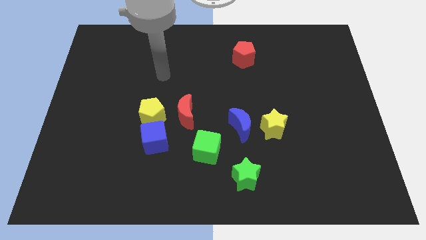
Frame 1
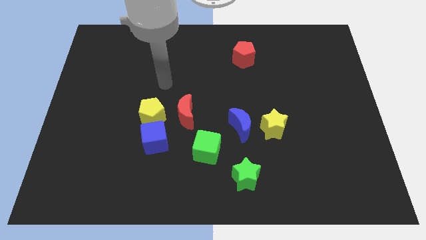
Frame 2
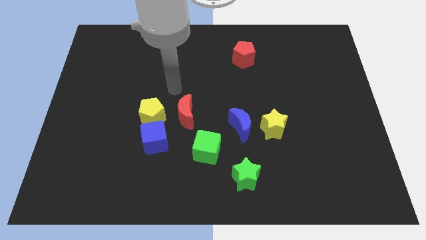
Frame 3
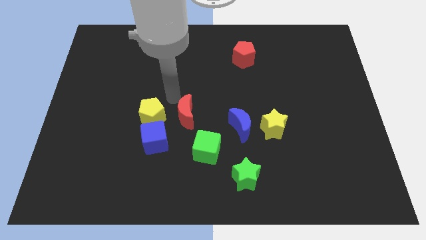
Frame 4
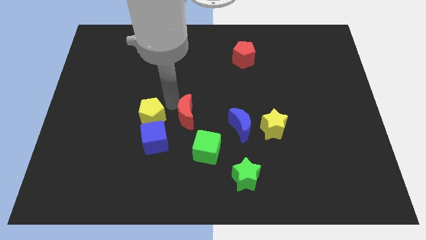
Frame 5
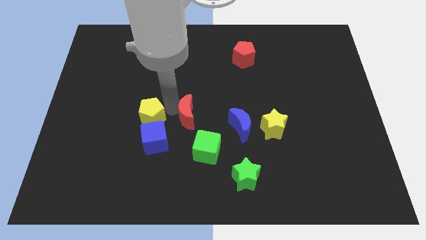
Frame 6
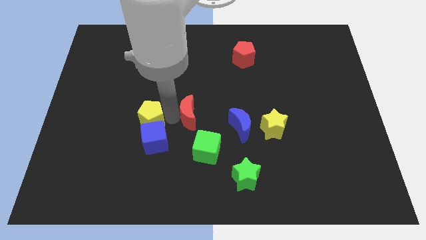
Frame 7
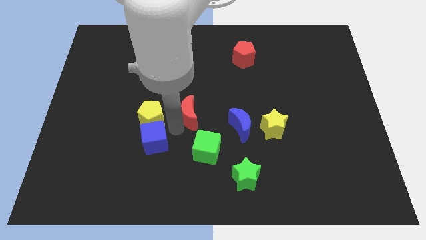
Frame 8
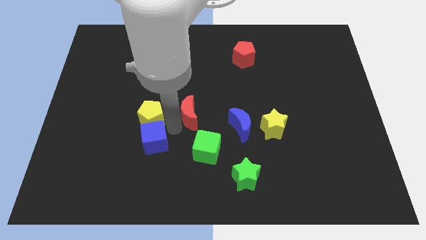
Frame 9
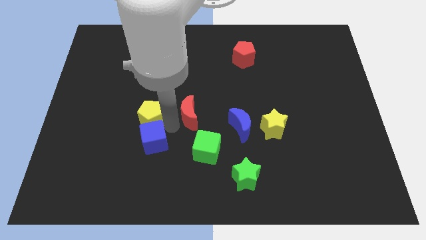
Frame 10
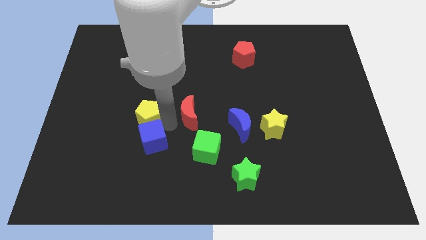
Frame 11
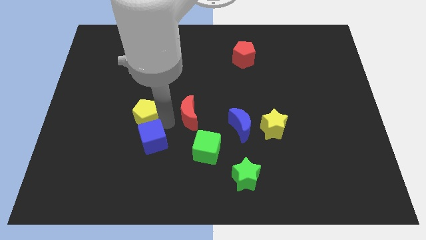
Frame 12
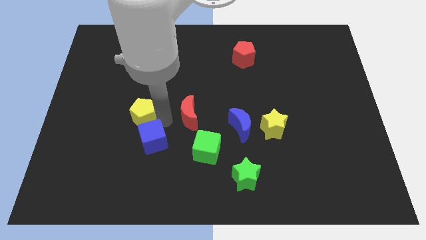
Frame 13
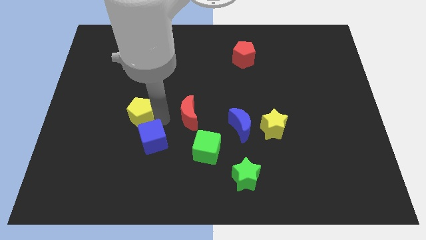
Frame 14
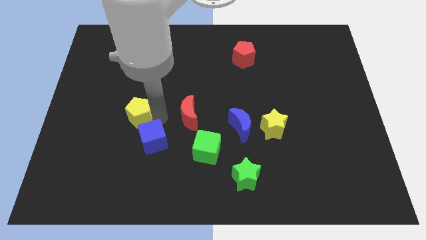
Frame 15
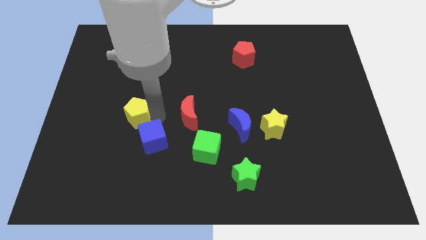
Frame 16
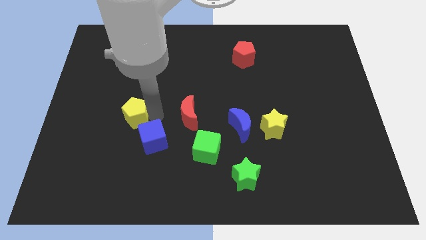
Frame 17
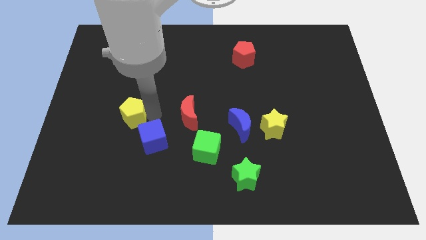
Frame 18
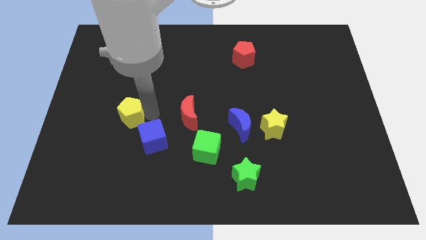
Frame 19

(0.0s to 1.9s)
move the yellow pentagon away from the blue cube and red moon

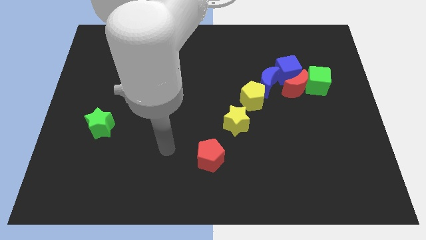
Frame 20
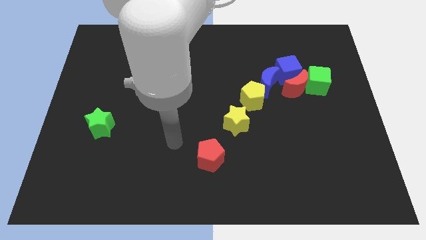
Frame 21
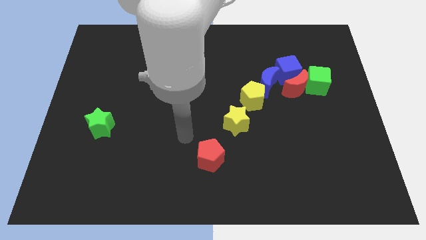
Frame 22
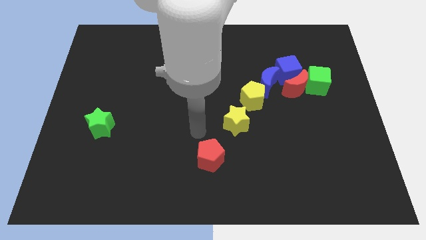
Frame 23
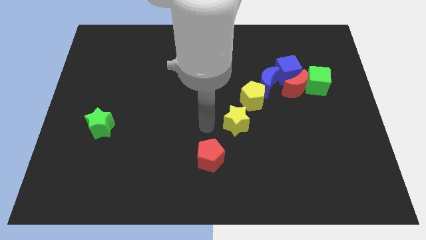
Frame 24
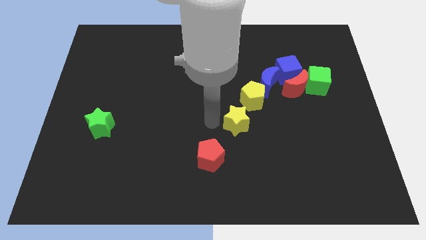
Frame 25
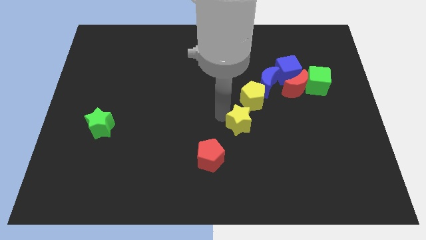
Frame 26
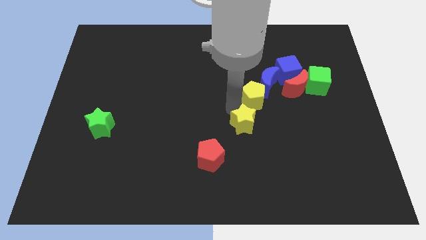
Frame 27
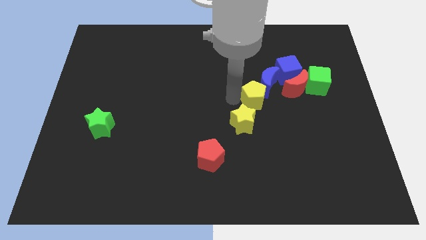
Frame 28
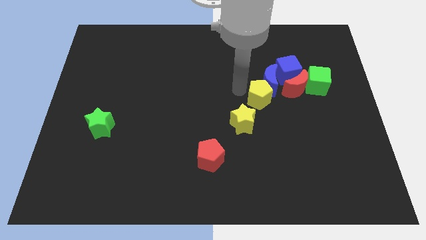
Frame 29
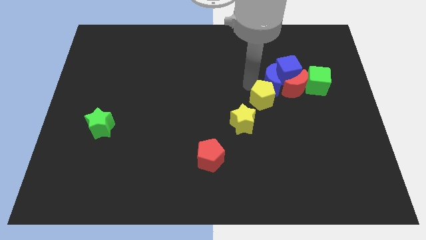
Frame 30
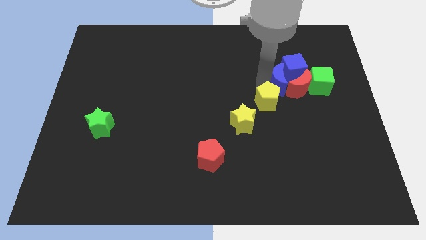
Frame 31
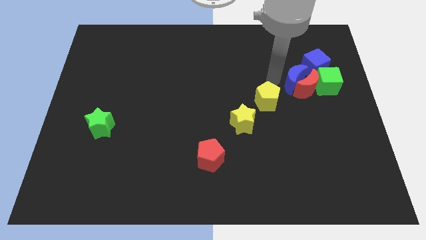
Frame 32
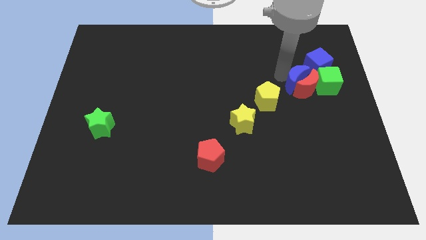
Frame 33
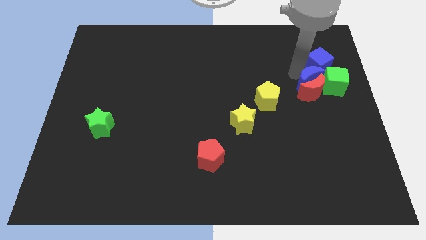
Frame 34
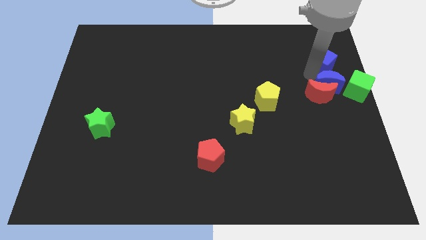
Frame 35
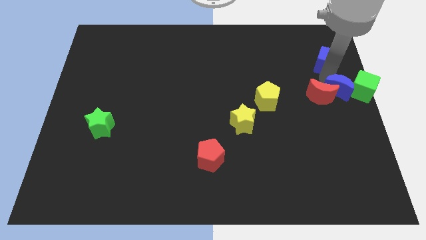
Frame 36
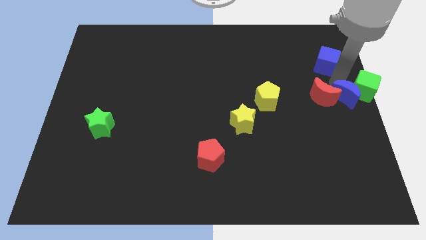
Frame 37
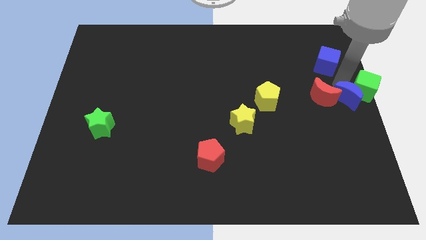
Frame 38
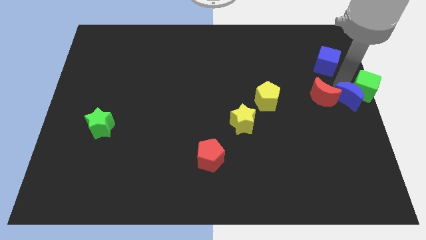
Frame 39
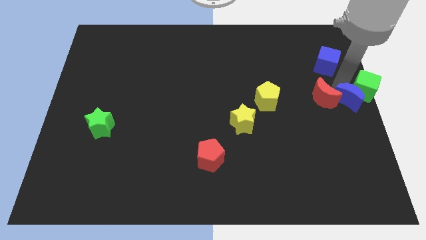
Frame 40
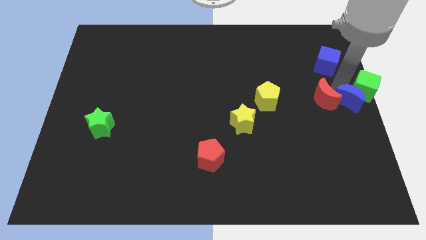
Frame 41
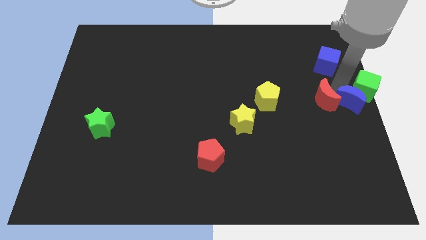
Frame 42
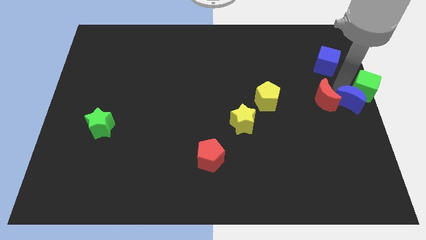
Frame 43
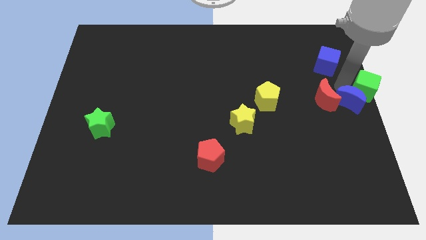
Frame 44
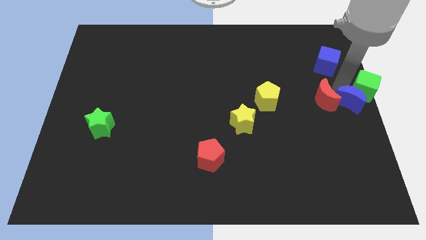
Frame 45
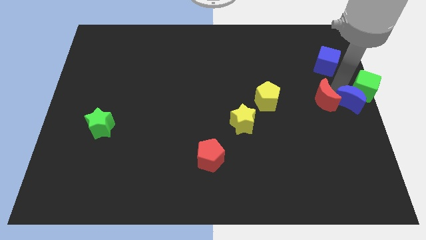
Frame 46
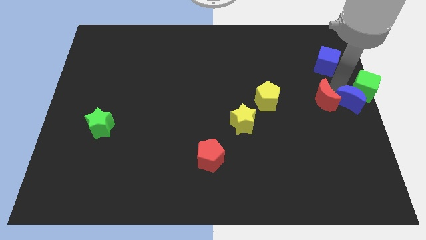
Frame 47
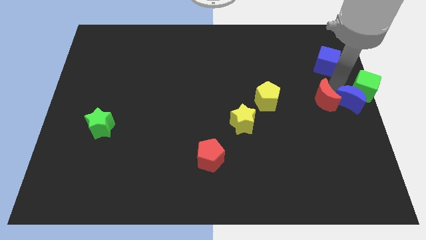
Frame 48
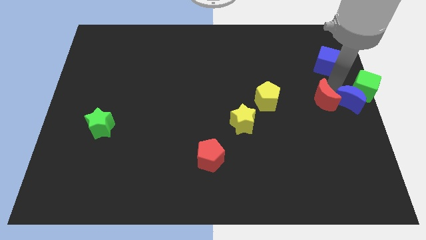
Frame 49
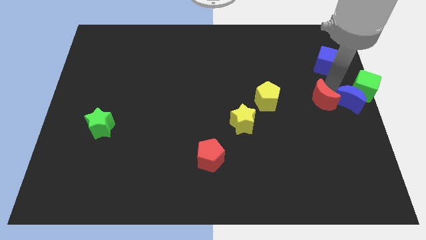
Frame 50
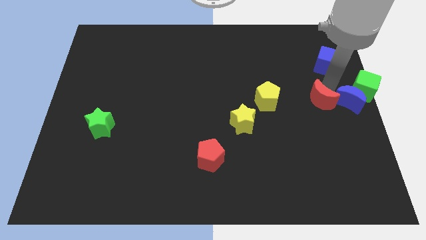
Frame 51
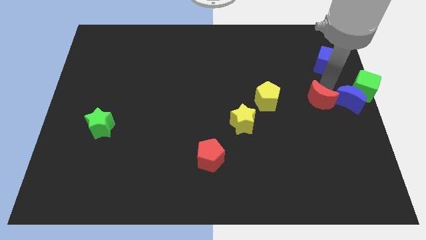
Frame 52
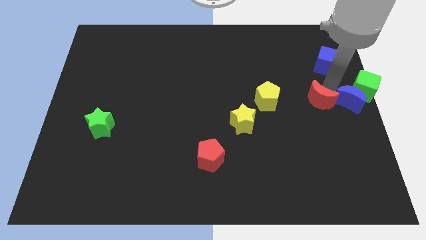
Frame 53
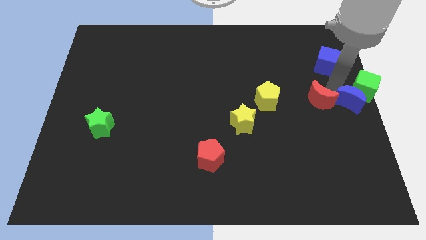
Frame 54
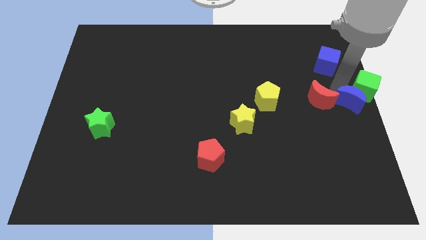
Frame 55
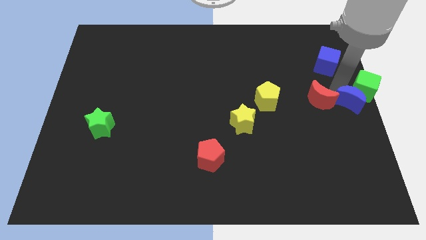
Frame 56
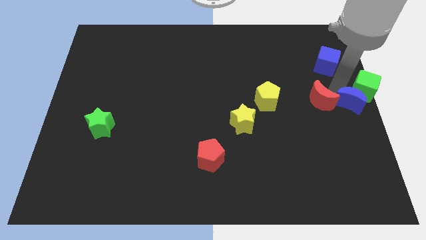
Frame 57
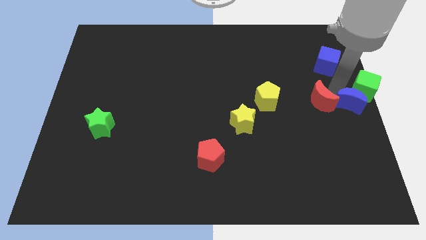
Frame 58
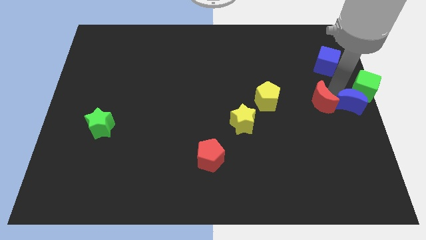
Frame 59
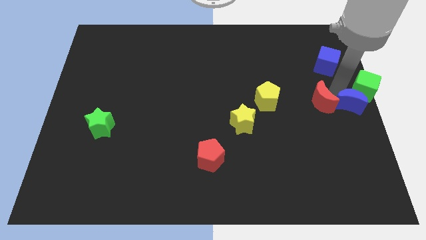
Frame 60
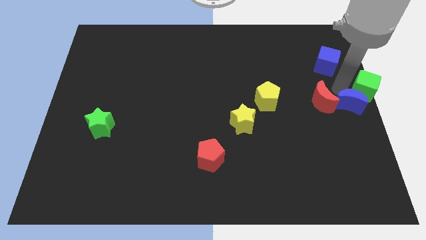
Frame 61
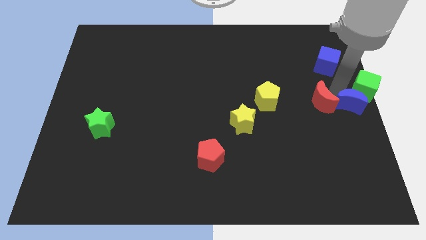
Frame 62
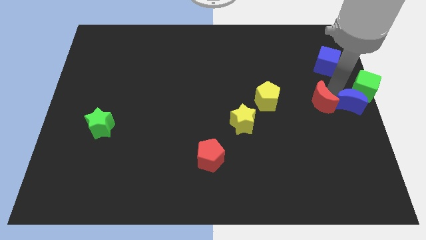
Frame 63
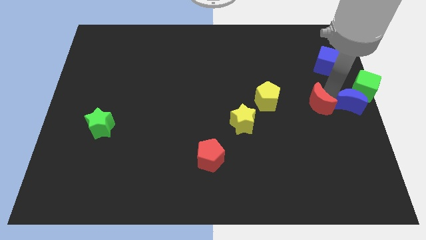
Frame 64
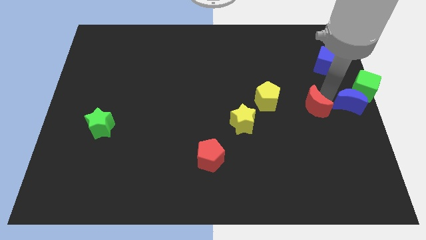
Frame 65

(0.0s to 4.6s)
pull the red moon apart from the group

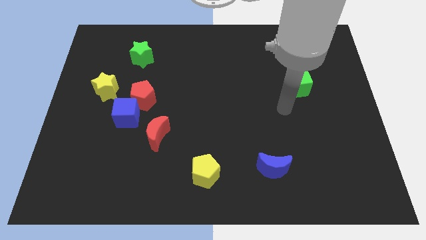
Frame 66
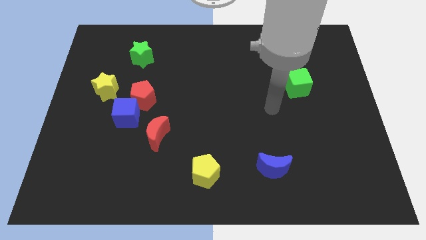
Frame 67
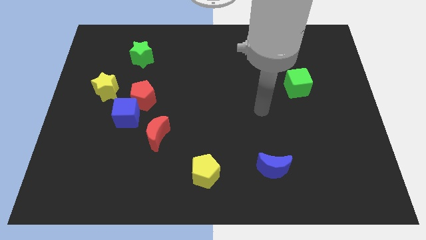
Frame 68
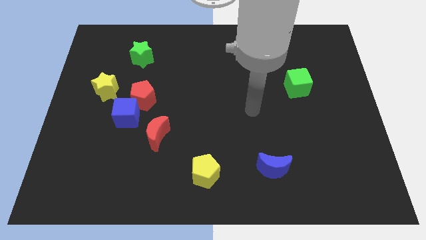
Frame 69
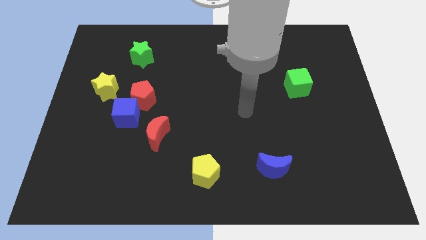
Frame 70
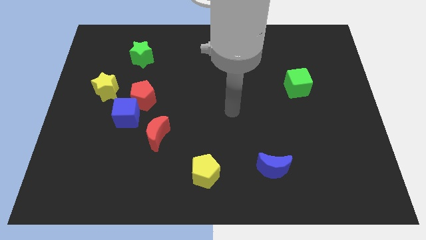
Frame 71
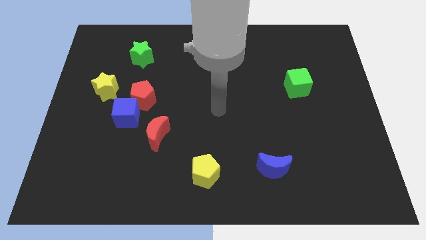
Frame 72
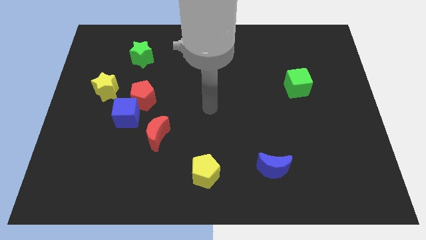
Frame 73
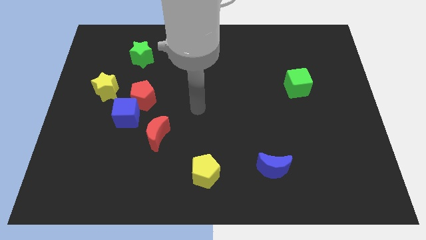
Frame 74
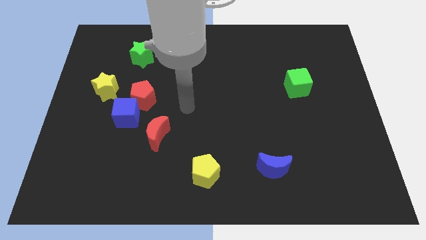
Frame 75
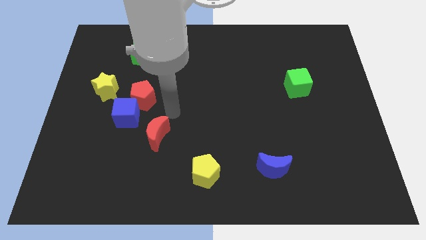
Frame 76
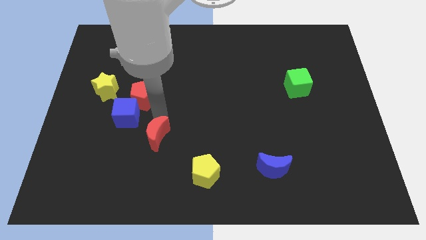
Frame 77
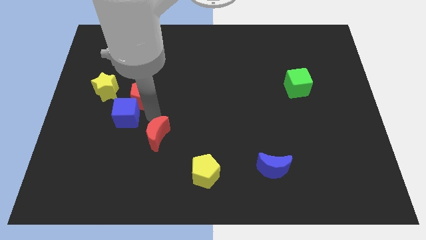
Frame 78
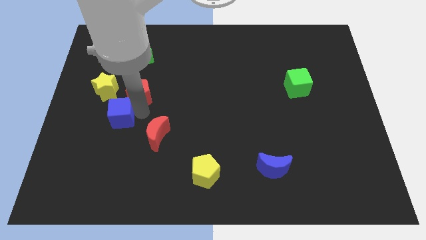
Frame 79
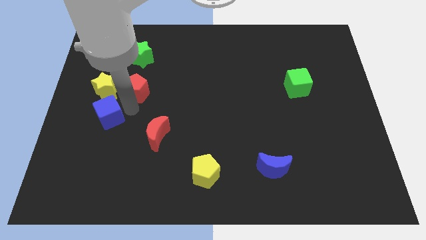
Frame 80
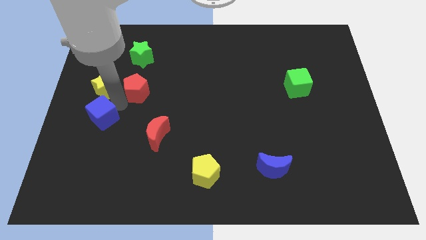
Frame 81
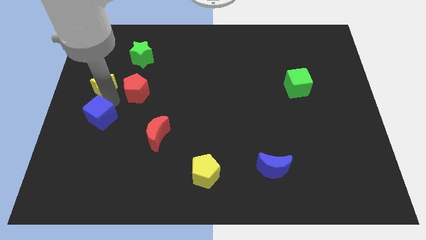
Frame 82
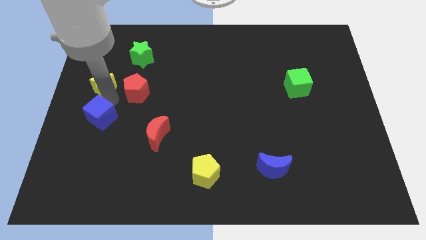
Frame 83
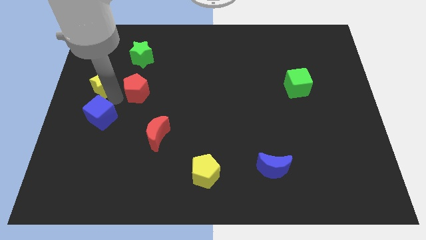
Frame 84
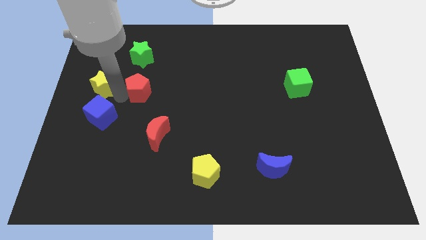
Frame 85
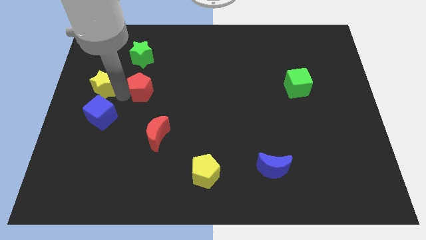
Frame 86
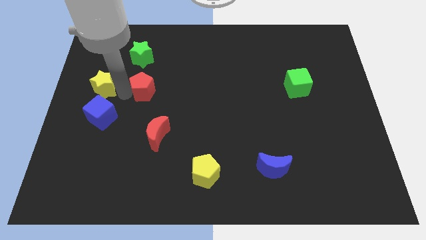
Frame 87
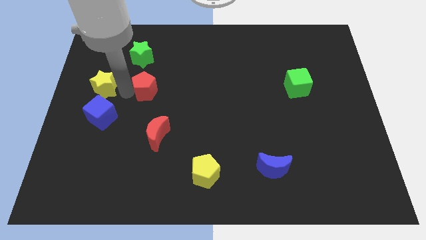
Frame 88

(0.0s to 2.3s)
move the red pentagon away from the blue cube and yellow star

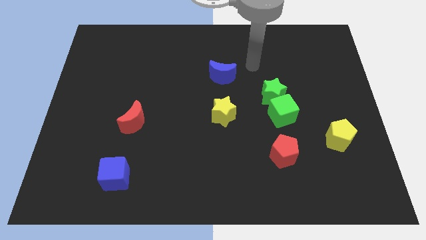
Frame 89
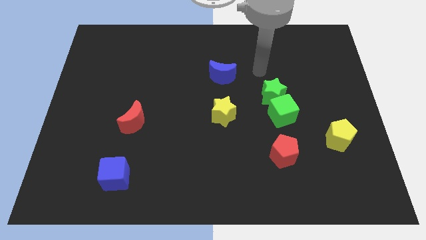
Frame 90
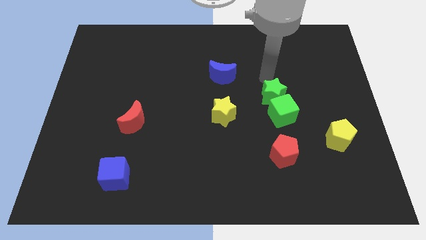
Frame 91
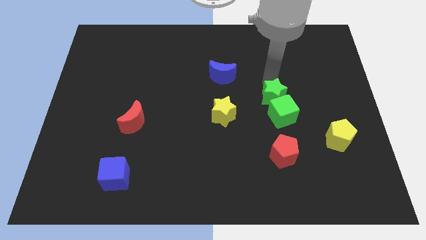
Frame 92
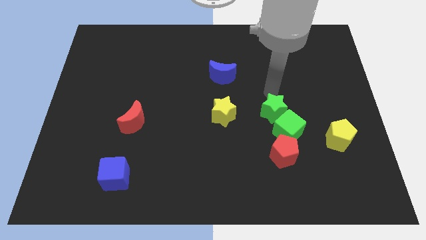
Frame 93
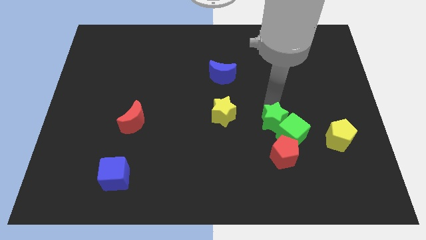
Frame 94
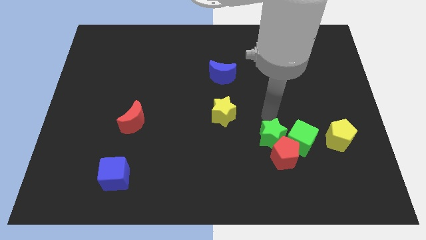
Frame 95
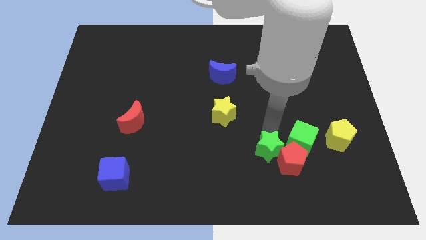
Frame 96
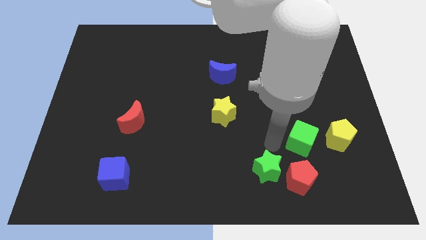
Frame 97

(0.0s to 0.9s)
move the green cube away from the green star
